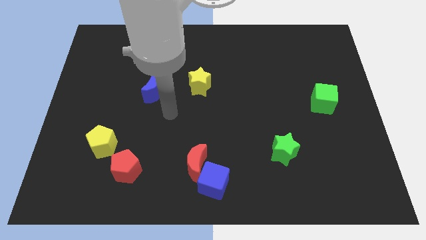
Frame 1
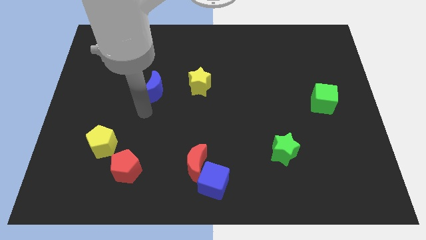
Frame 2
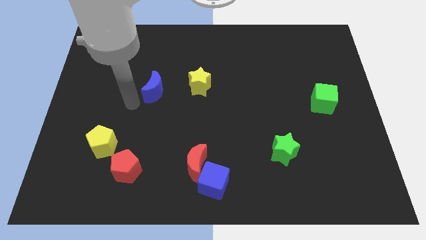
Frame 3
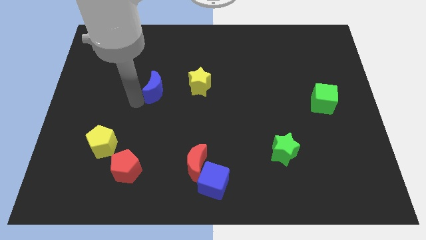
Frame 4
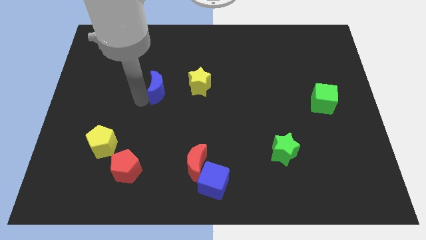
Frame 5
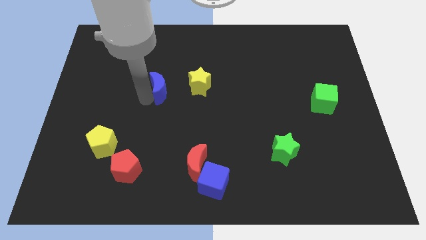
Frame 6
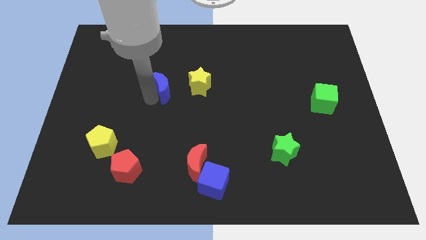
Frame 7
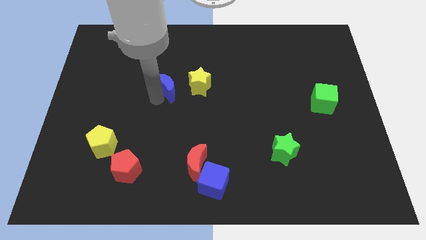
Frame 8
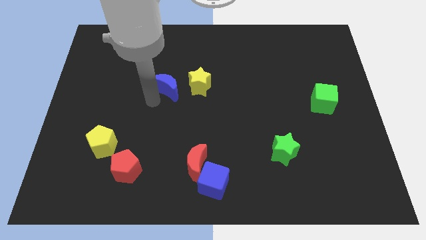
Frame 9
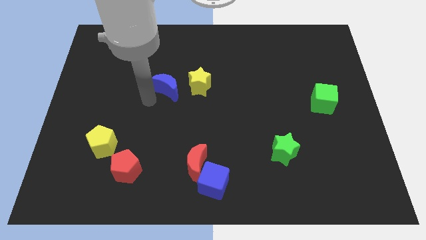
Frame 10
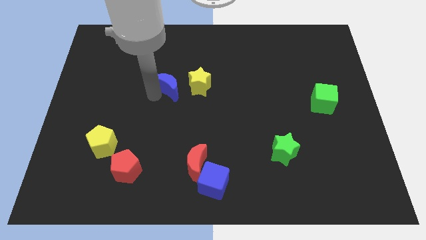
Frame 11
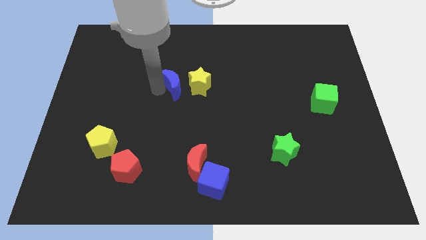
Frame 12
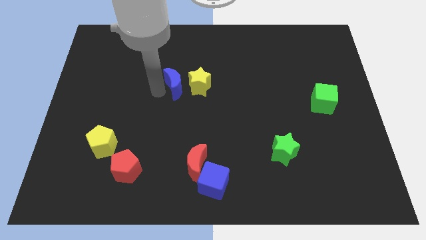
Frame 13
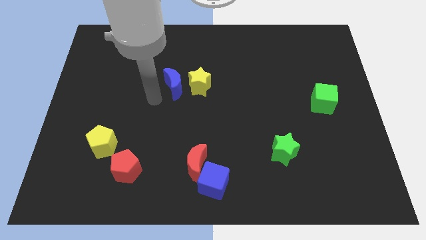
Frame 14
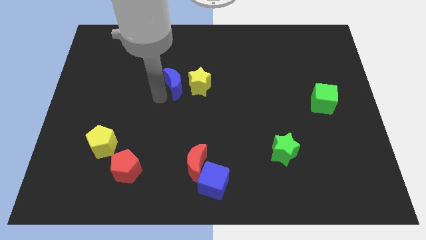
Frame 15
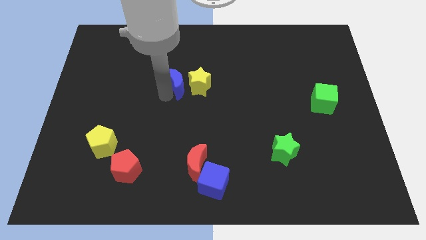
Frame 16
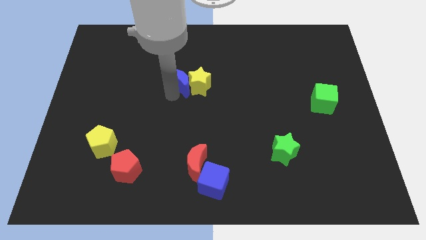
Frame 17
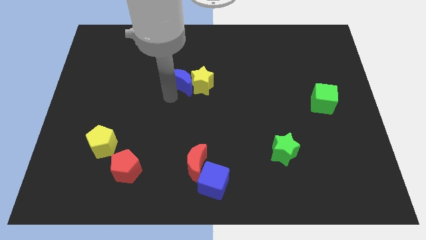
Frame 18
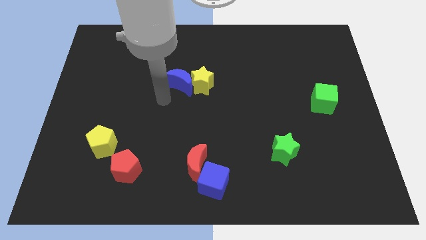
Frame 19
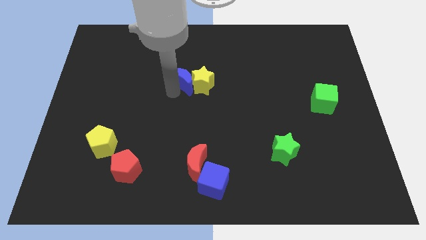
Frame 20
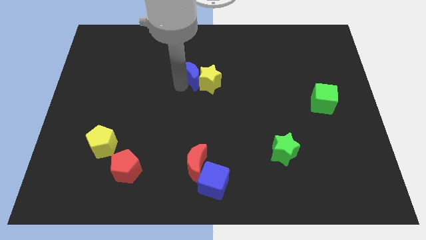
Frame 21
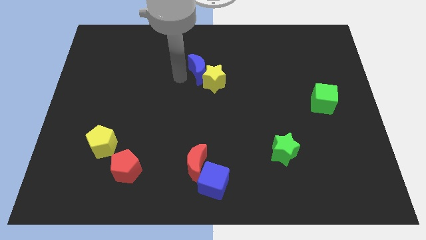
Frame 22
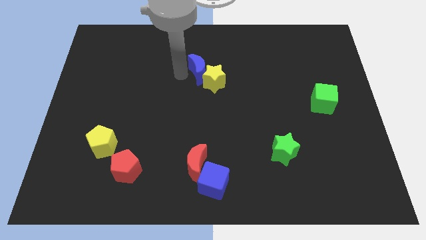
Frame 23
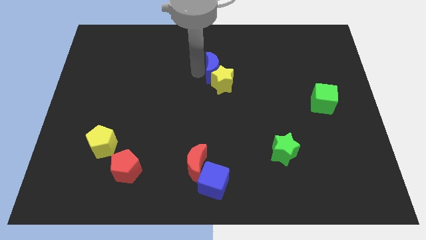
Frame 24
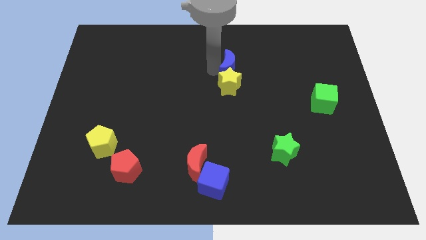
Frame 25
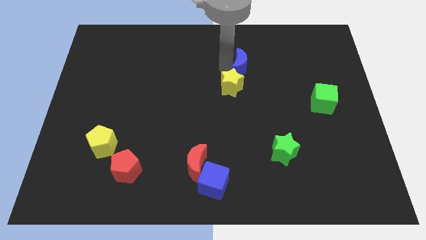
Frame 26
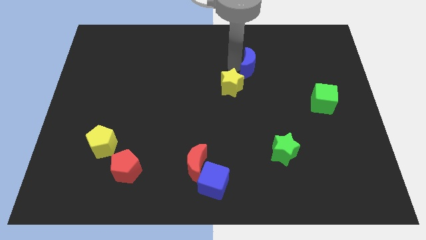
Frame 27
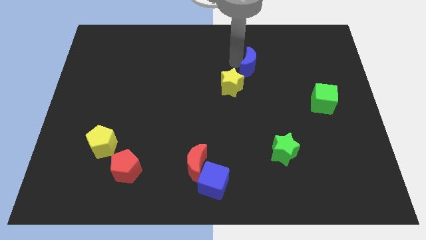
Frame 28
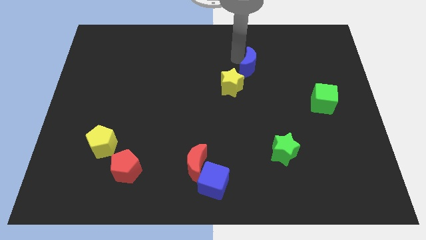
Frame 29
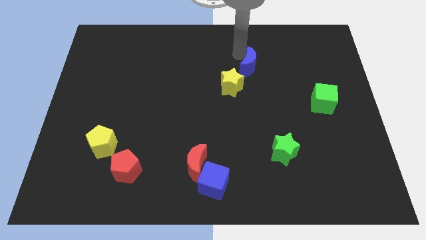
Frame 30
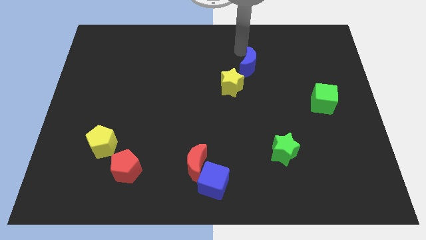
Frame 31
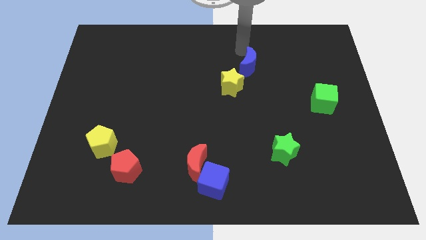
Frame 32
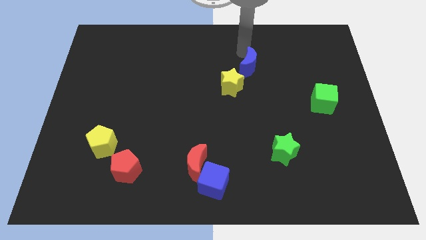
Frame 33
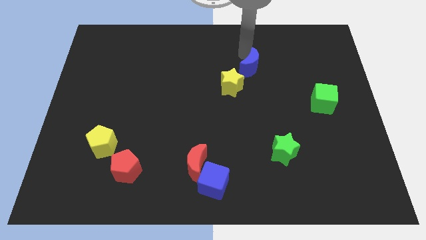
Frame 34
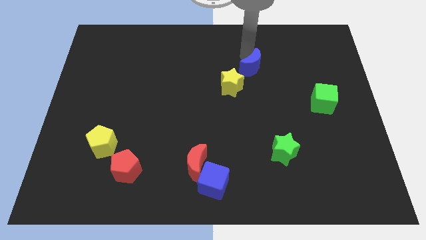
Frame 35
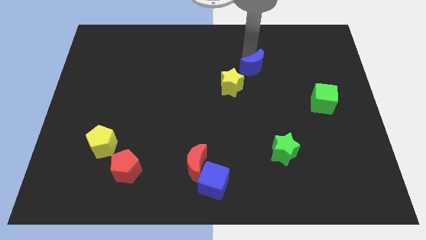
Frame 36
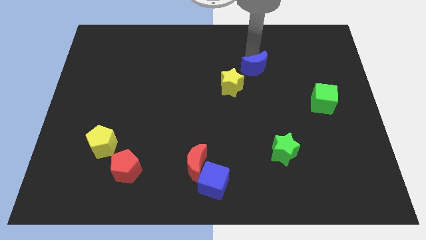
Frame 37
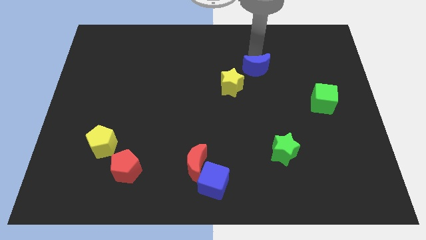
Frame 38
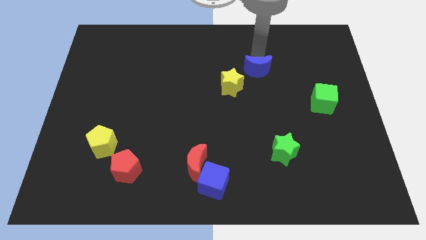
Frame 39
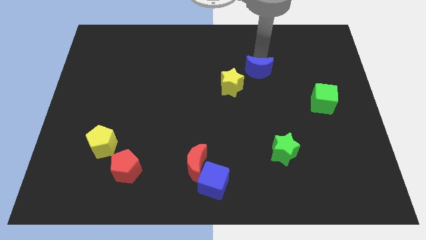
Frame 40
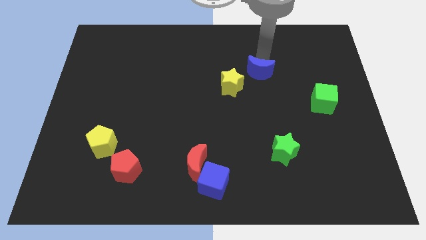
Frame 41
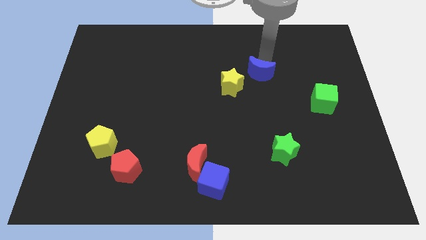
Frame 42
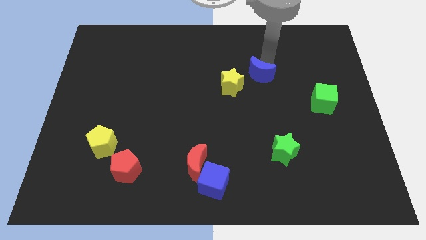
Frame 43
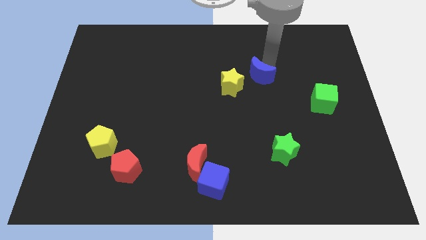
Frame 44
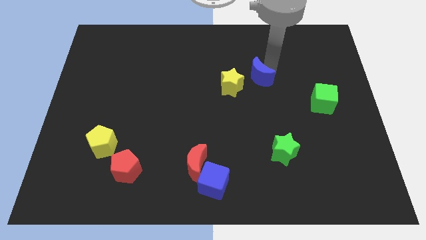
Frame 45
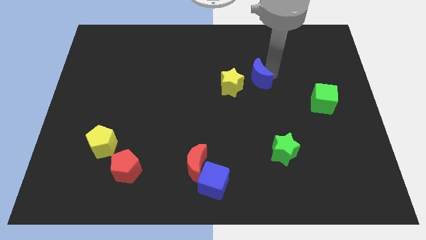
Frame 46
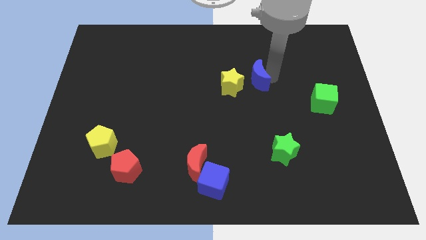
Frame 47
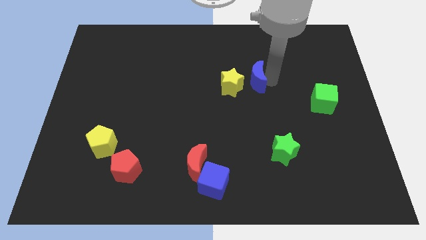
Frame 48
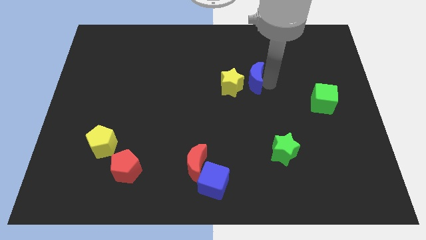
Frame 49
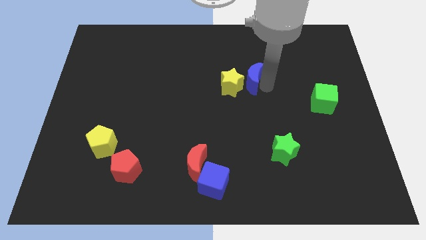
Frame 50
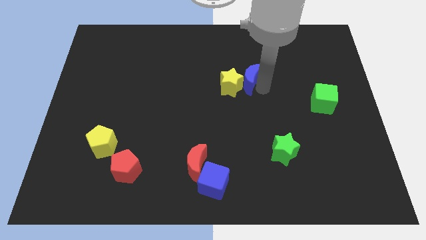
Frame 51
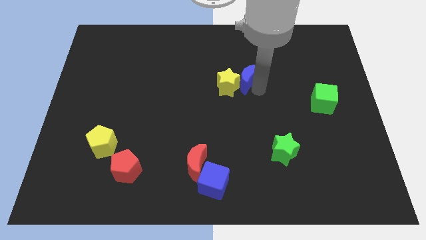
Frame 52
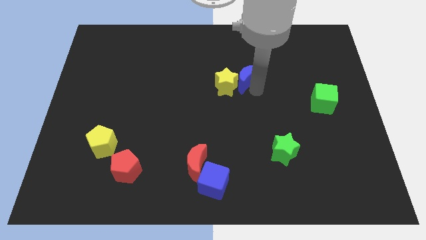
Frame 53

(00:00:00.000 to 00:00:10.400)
slide the blue moon to the top right of the yellow star

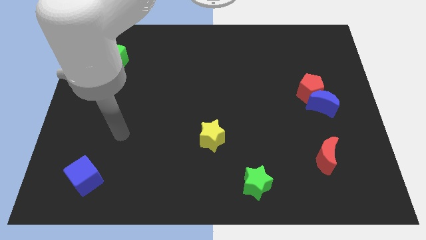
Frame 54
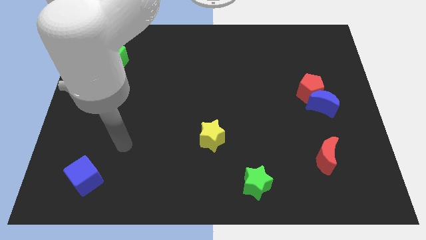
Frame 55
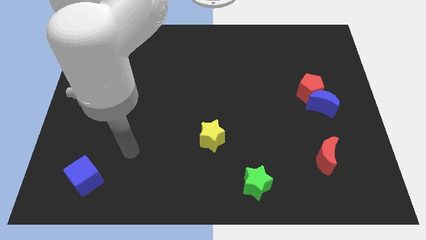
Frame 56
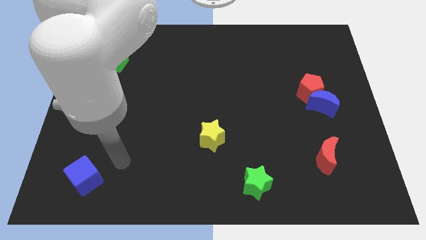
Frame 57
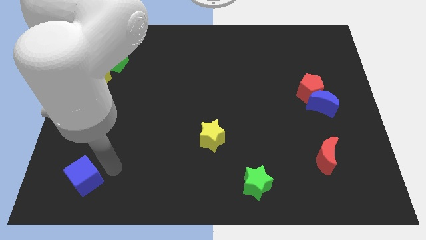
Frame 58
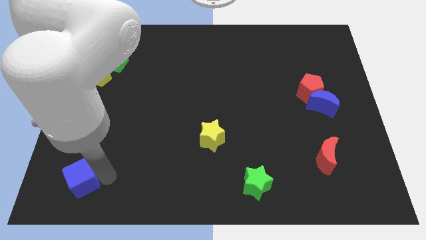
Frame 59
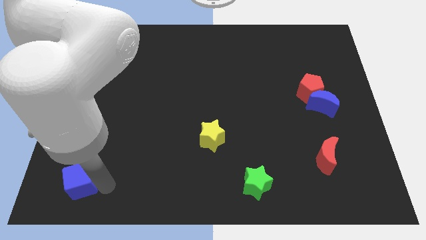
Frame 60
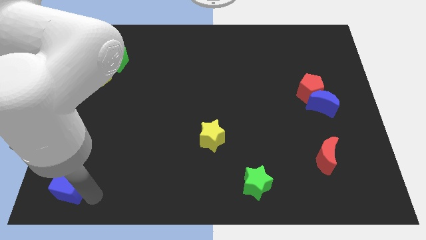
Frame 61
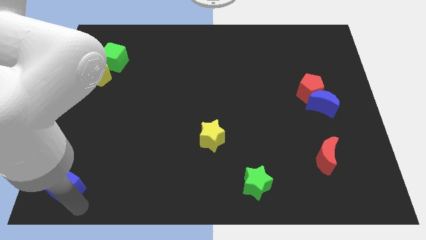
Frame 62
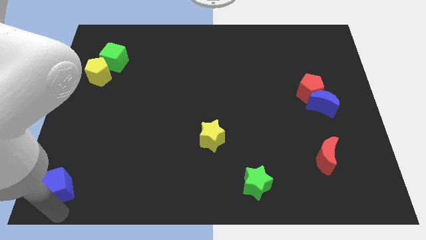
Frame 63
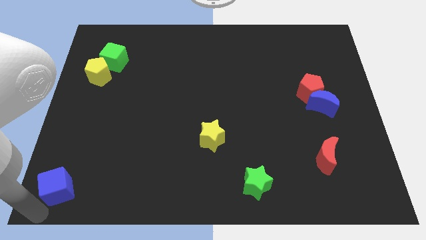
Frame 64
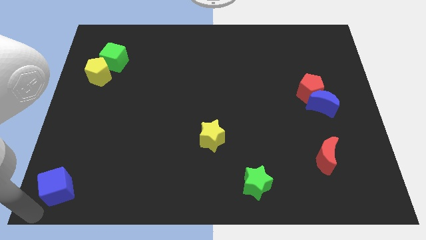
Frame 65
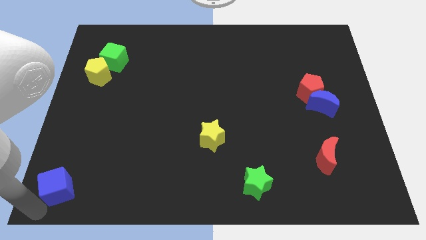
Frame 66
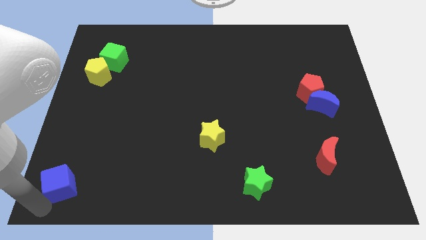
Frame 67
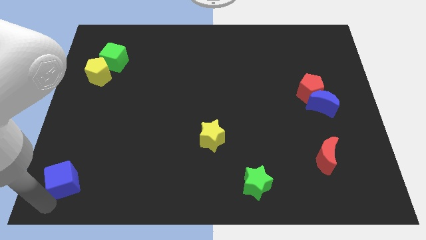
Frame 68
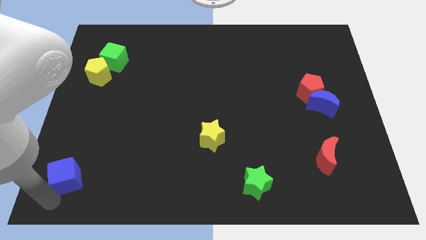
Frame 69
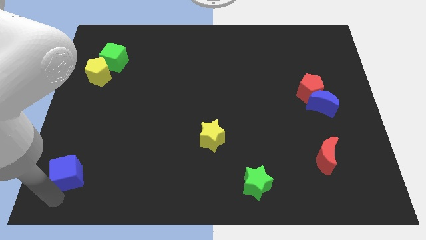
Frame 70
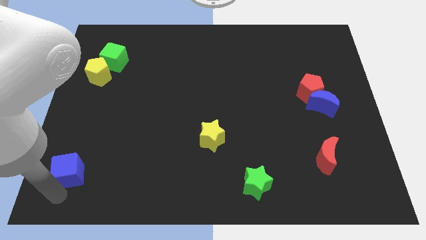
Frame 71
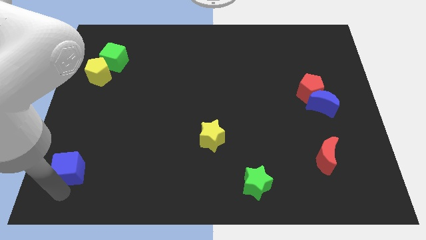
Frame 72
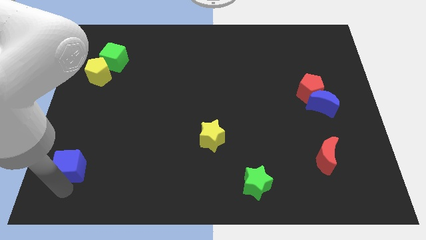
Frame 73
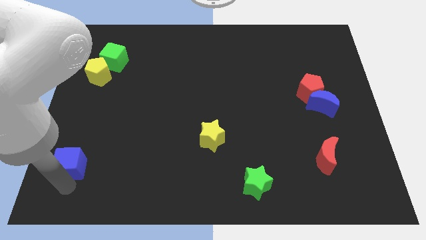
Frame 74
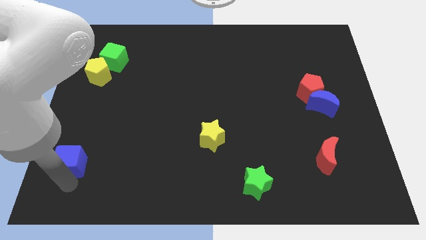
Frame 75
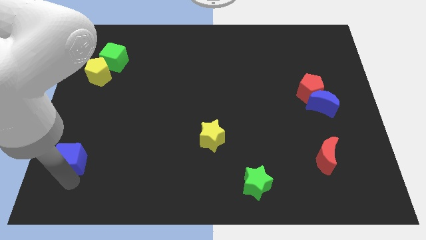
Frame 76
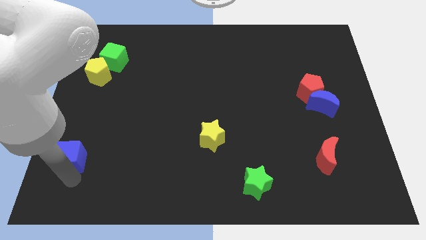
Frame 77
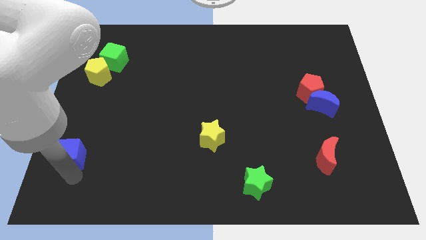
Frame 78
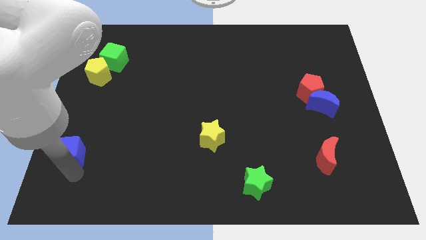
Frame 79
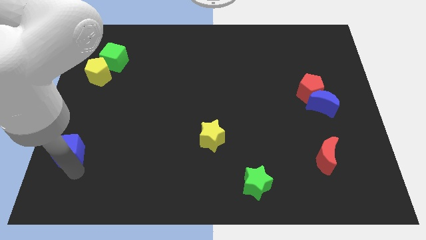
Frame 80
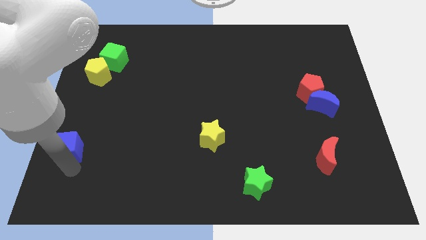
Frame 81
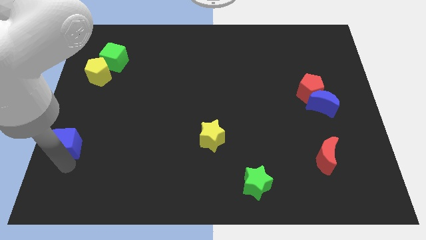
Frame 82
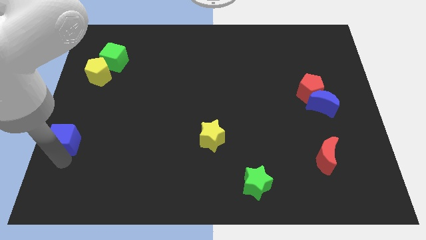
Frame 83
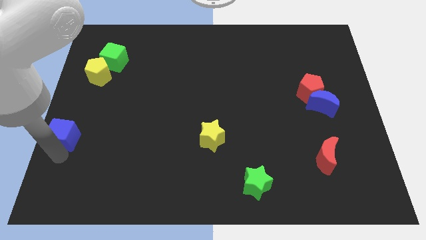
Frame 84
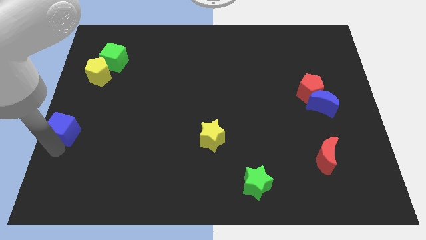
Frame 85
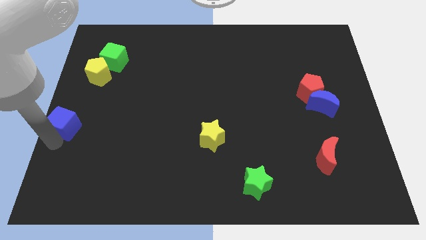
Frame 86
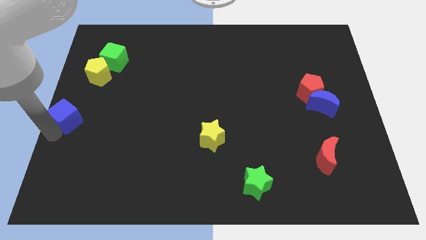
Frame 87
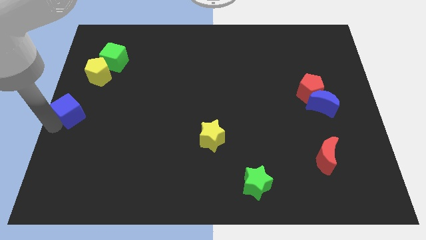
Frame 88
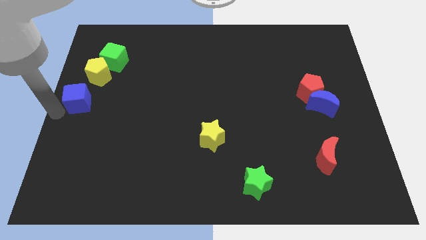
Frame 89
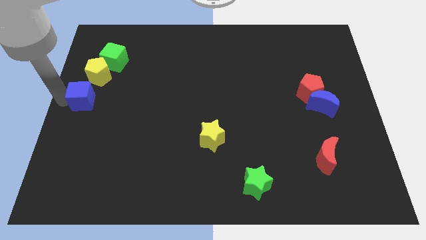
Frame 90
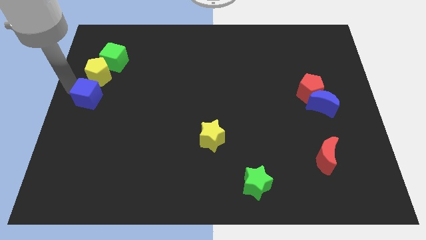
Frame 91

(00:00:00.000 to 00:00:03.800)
slide the blue cube below the green cube
